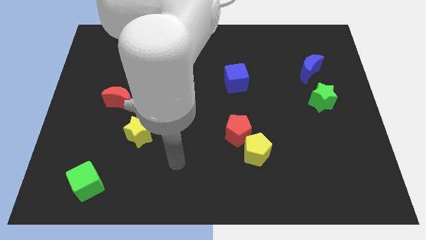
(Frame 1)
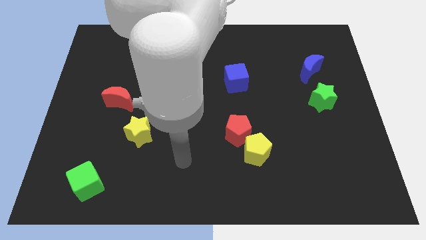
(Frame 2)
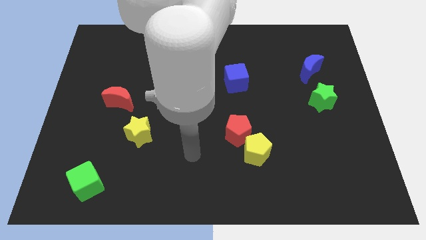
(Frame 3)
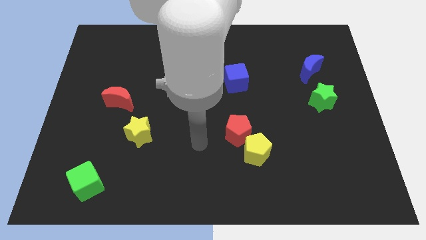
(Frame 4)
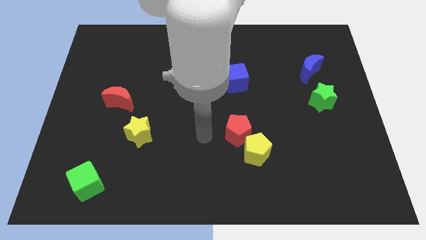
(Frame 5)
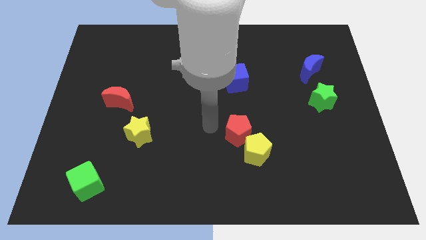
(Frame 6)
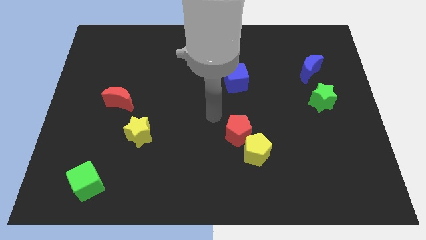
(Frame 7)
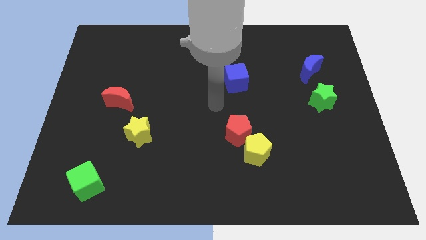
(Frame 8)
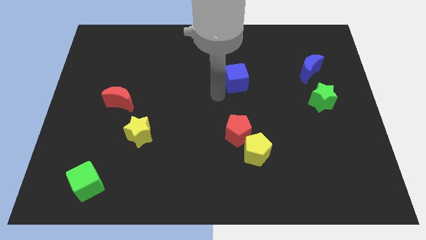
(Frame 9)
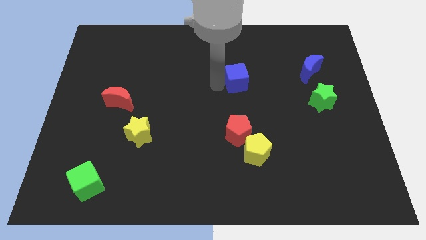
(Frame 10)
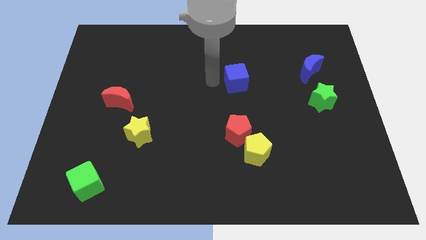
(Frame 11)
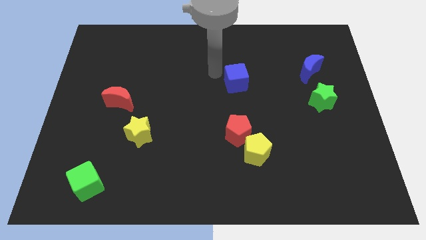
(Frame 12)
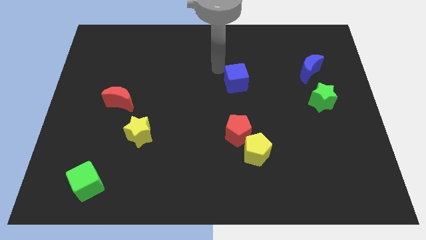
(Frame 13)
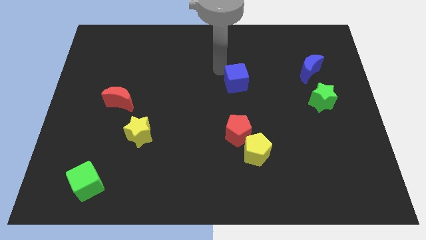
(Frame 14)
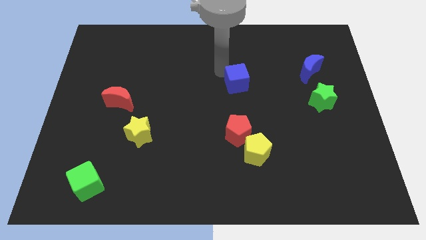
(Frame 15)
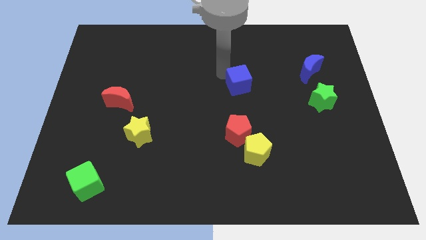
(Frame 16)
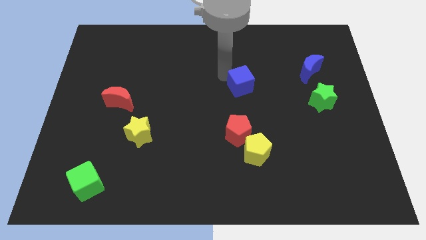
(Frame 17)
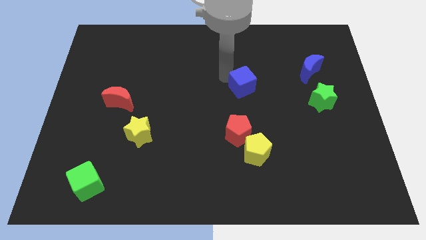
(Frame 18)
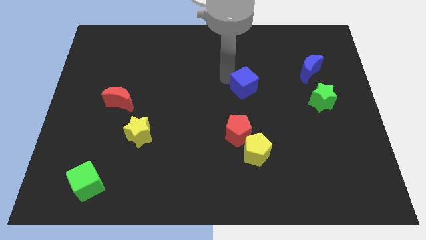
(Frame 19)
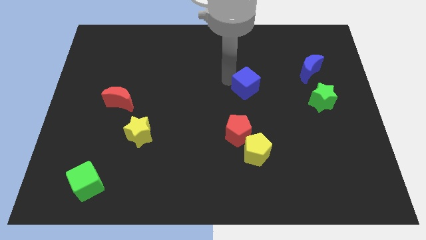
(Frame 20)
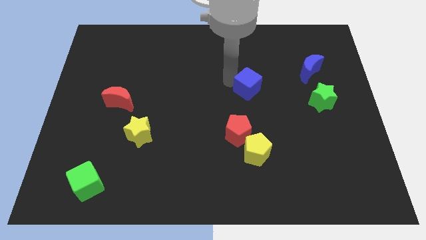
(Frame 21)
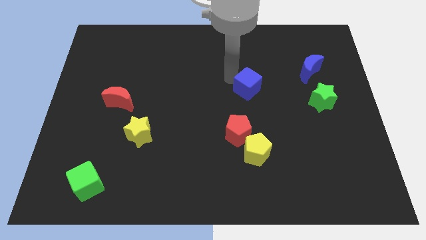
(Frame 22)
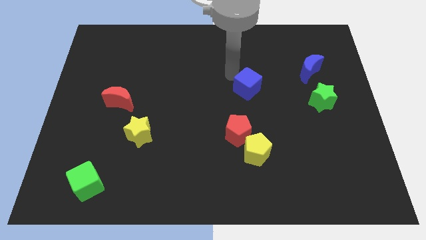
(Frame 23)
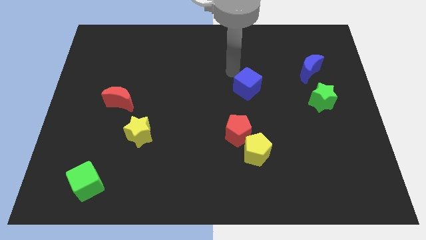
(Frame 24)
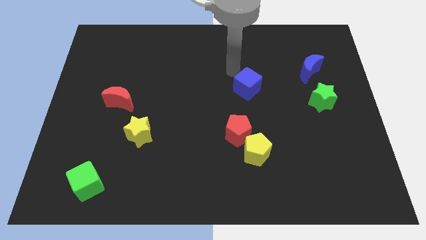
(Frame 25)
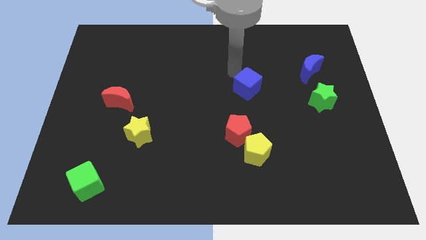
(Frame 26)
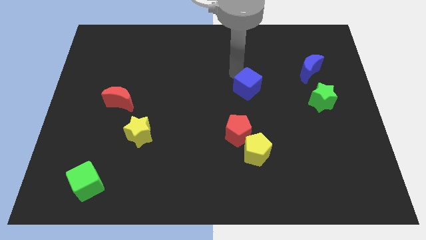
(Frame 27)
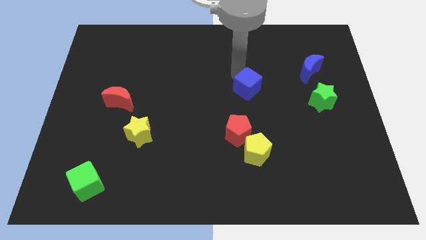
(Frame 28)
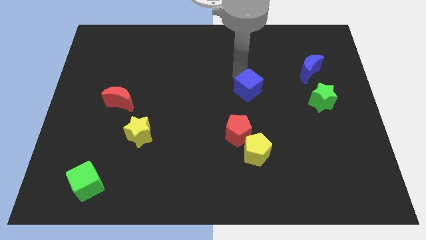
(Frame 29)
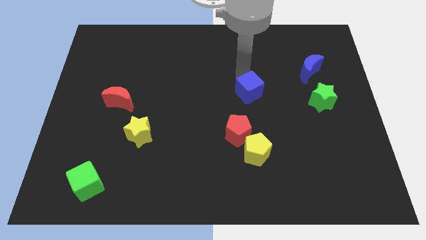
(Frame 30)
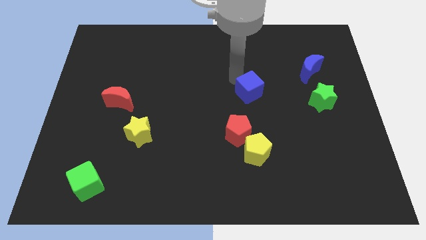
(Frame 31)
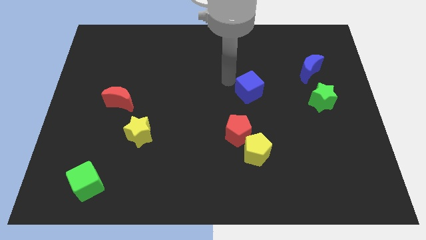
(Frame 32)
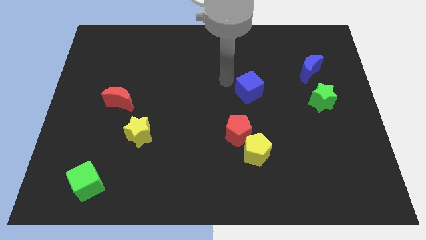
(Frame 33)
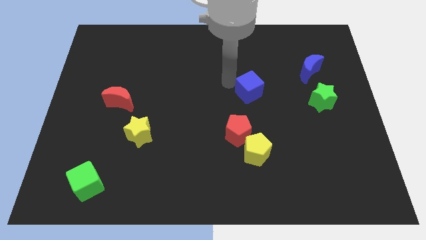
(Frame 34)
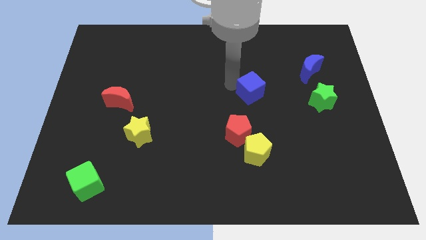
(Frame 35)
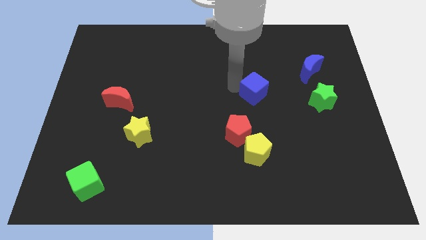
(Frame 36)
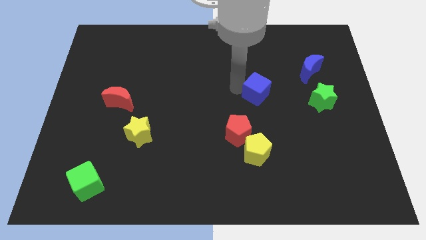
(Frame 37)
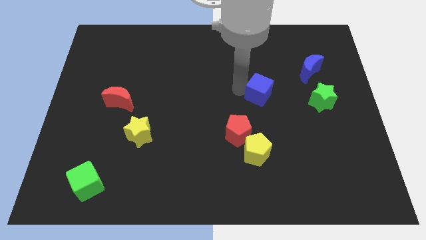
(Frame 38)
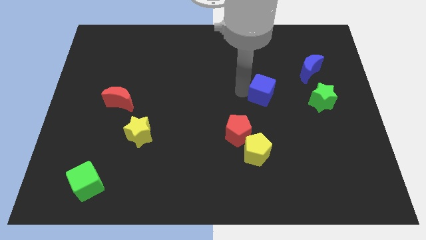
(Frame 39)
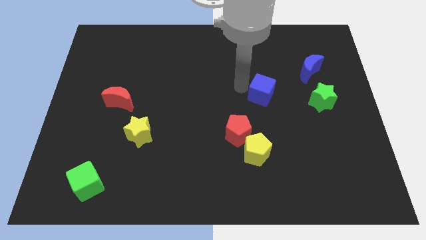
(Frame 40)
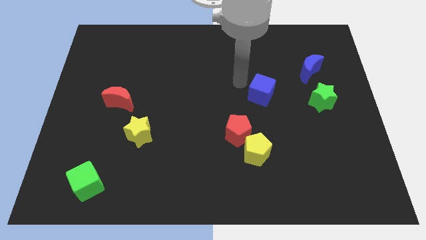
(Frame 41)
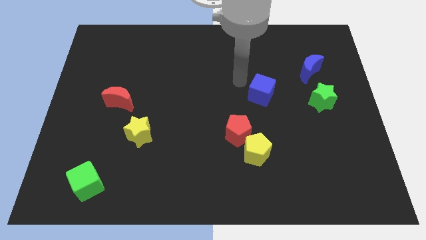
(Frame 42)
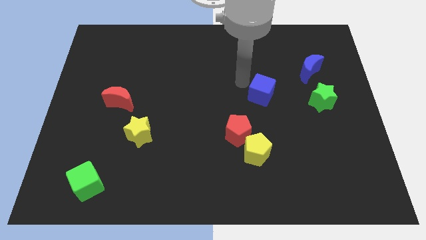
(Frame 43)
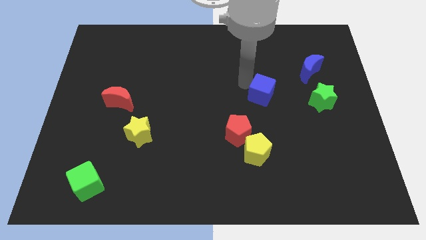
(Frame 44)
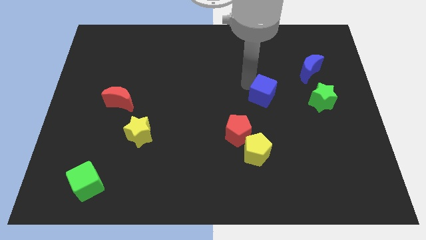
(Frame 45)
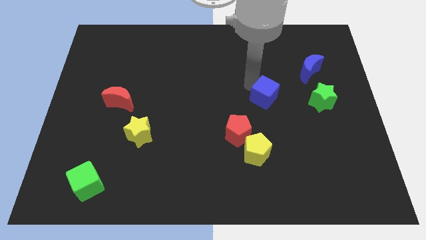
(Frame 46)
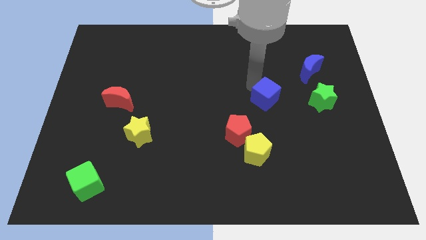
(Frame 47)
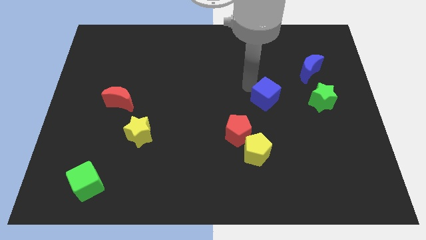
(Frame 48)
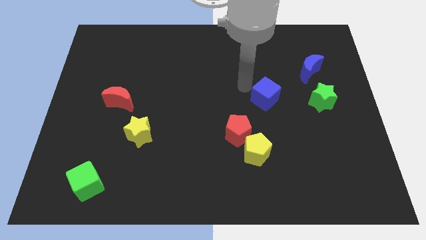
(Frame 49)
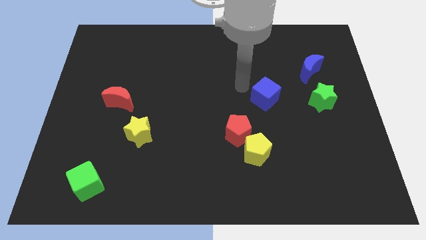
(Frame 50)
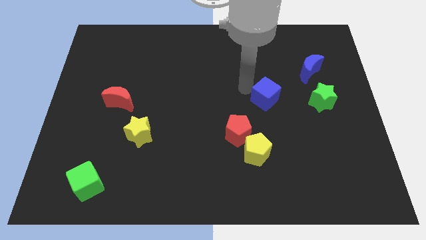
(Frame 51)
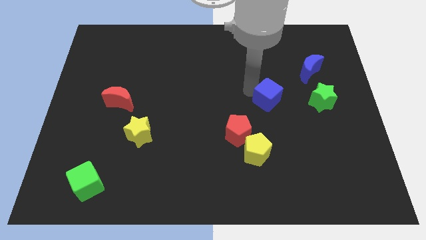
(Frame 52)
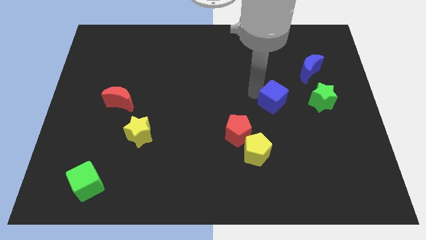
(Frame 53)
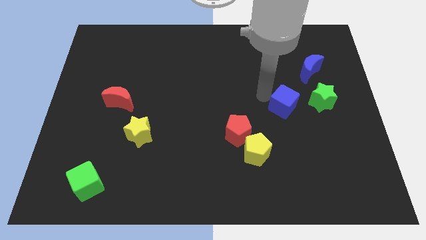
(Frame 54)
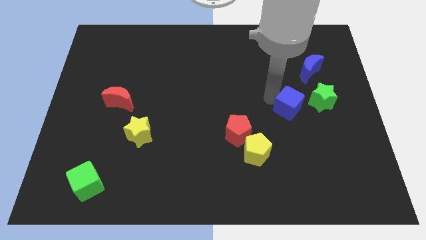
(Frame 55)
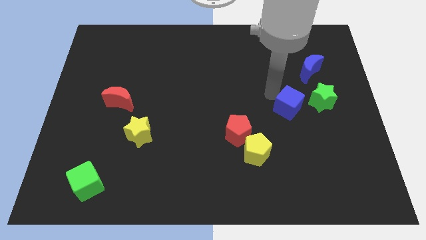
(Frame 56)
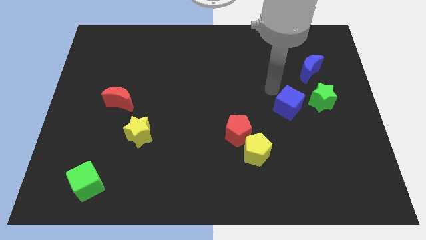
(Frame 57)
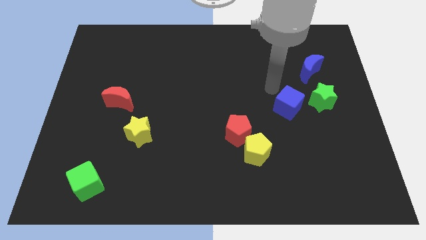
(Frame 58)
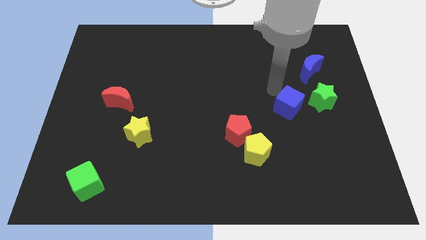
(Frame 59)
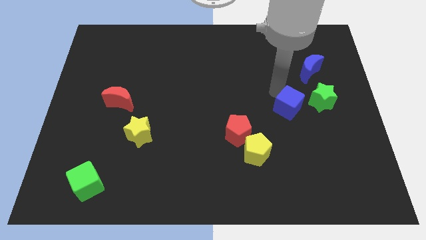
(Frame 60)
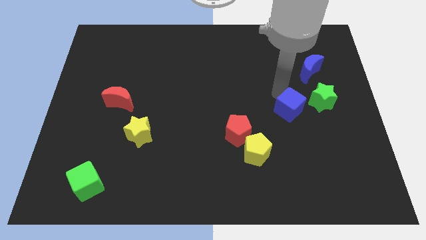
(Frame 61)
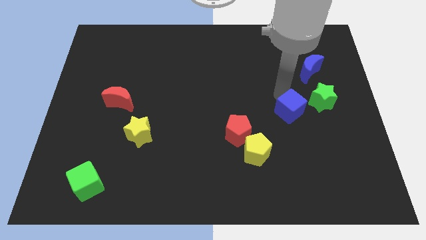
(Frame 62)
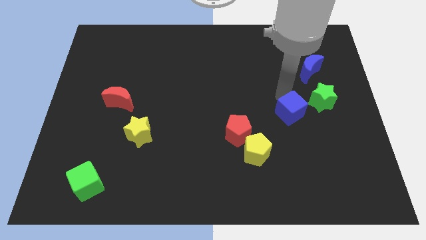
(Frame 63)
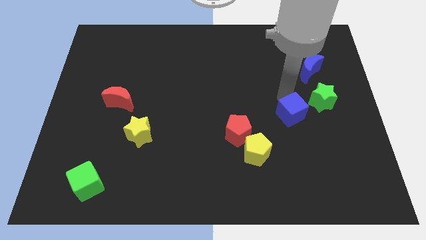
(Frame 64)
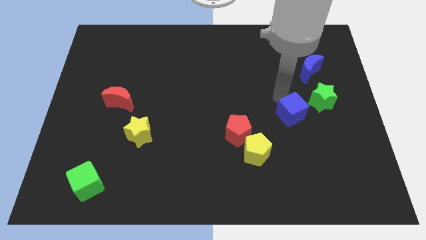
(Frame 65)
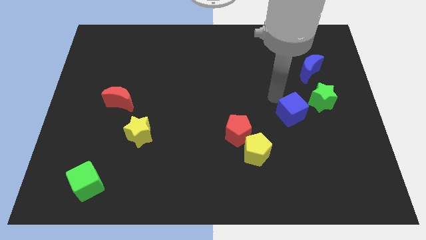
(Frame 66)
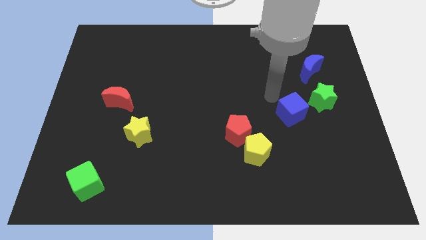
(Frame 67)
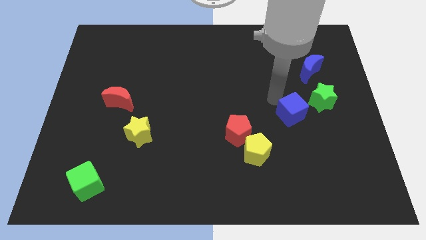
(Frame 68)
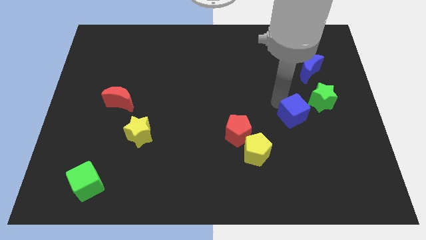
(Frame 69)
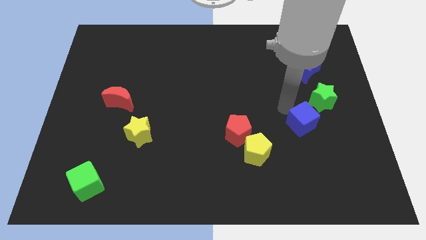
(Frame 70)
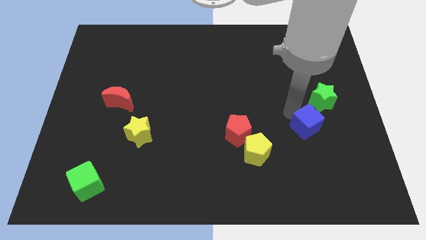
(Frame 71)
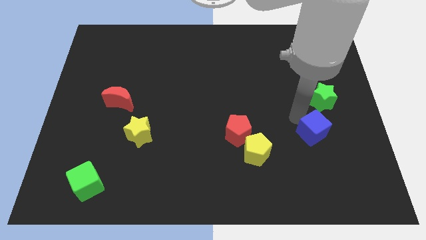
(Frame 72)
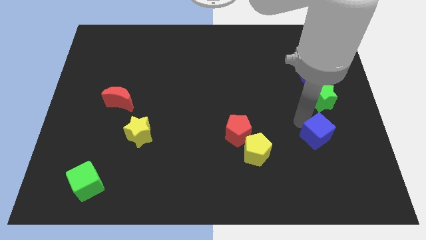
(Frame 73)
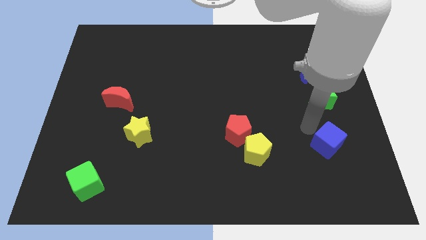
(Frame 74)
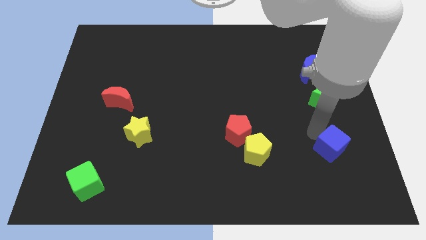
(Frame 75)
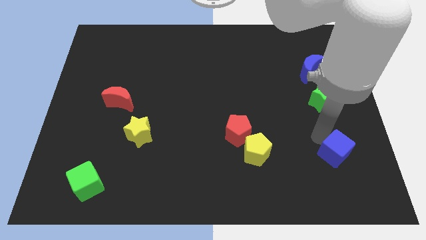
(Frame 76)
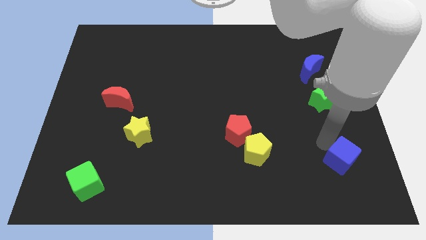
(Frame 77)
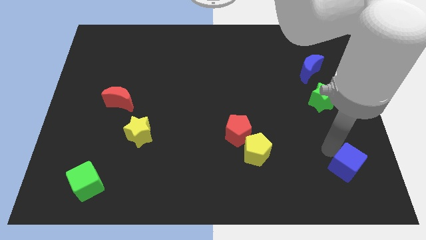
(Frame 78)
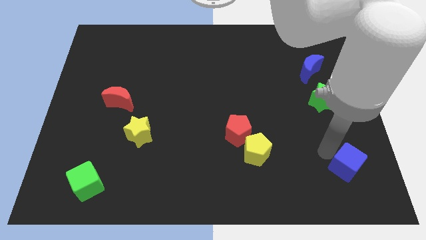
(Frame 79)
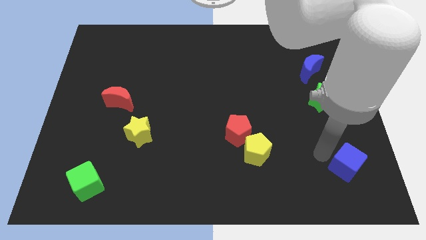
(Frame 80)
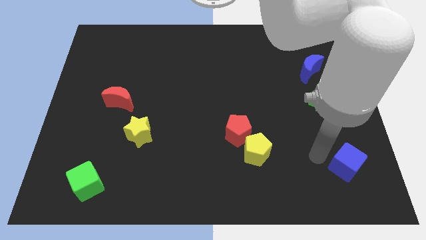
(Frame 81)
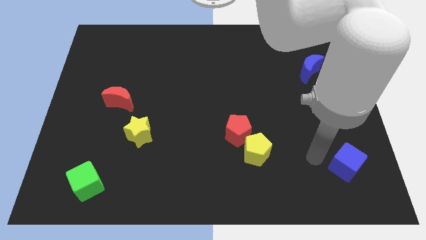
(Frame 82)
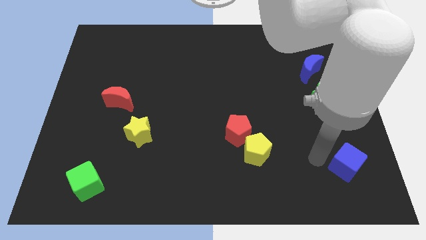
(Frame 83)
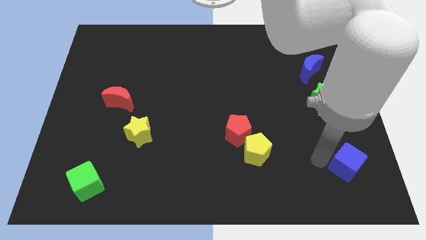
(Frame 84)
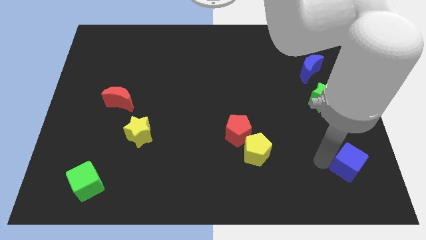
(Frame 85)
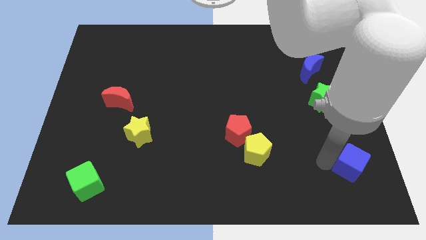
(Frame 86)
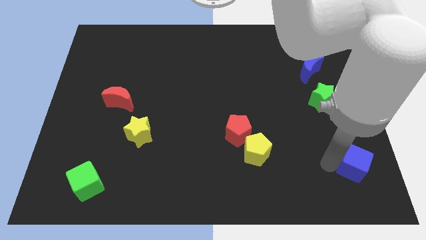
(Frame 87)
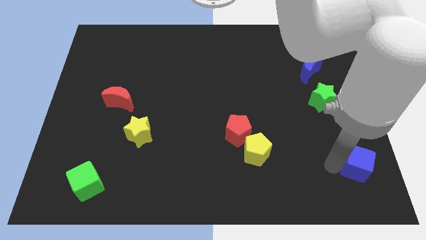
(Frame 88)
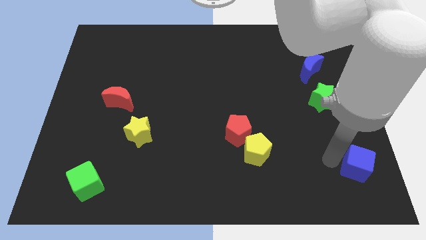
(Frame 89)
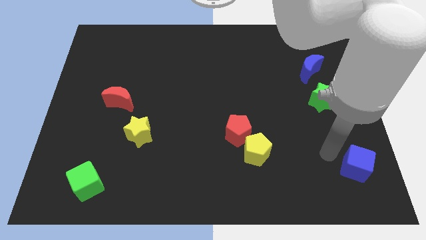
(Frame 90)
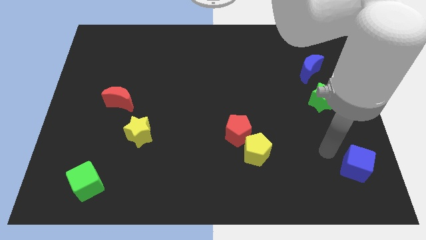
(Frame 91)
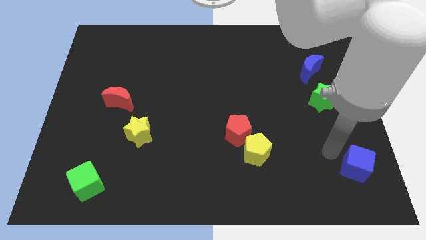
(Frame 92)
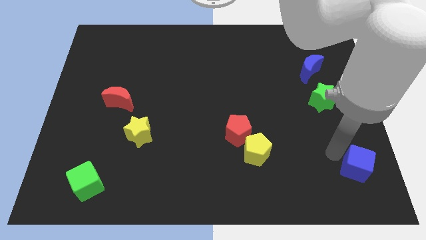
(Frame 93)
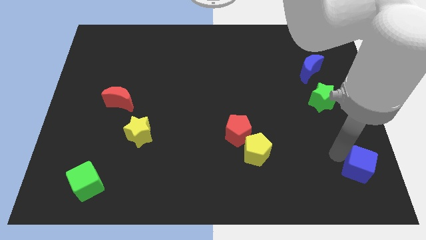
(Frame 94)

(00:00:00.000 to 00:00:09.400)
slide the blue cube to the bottom right
